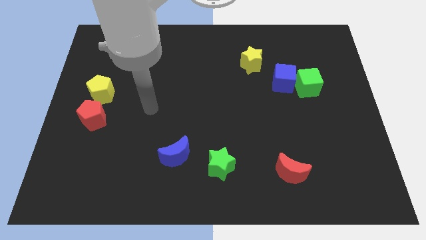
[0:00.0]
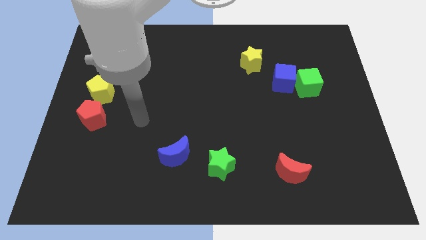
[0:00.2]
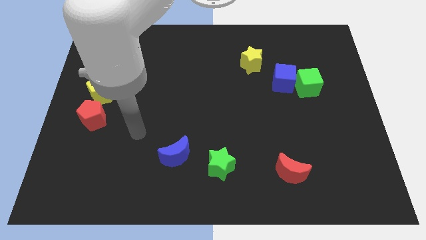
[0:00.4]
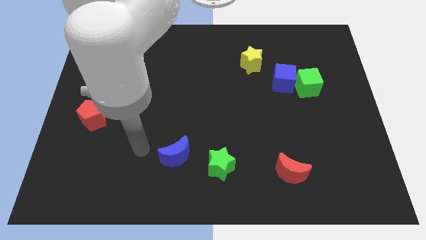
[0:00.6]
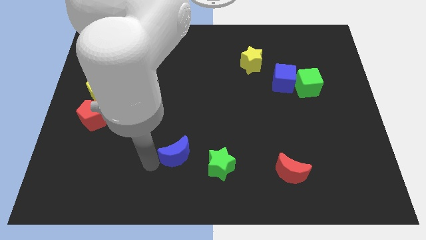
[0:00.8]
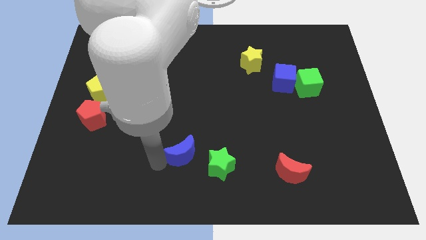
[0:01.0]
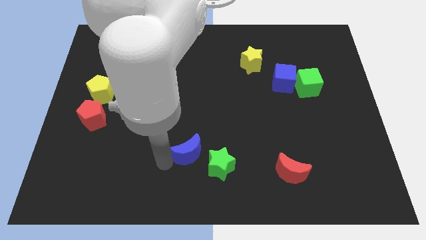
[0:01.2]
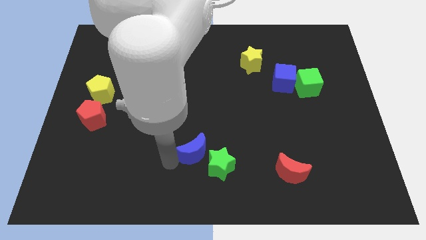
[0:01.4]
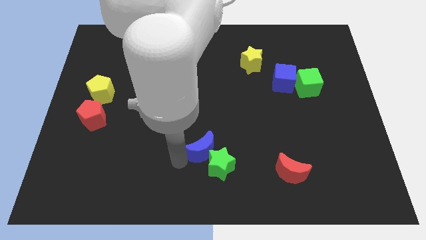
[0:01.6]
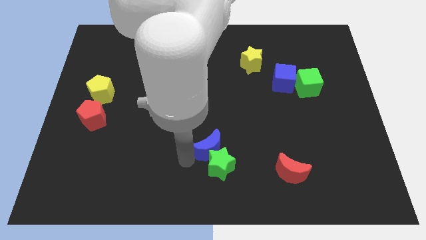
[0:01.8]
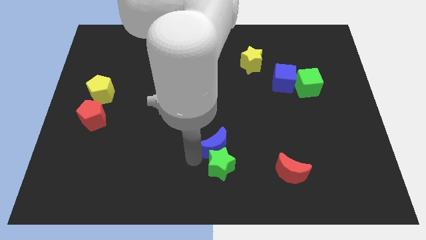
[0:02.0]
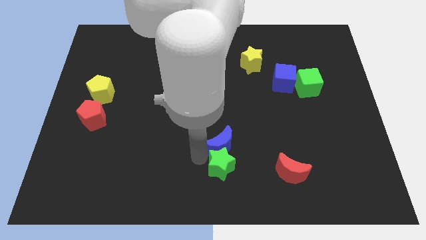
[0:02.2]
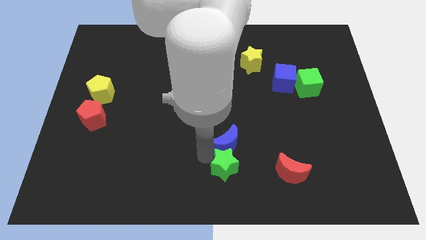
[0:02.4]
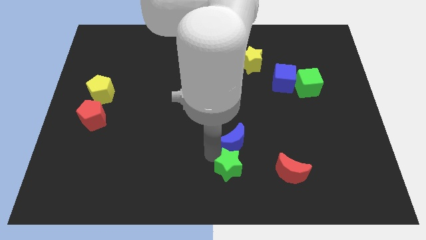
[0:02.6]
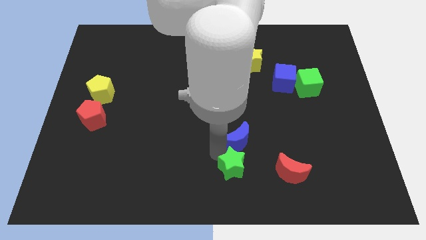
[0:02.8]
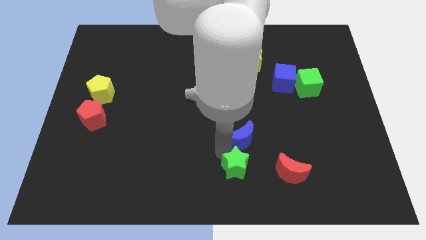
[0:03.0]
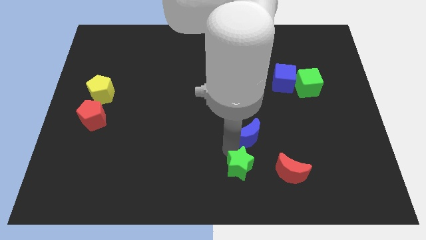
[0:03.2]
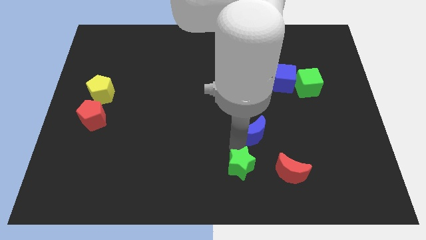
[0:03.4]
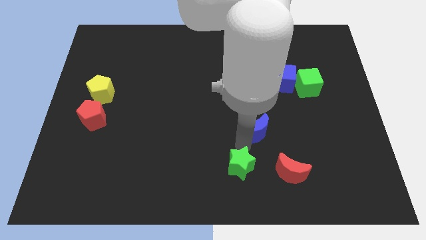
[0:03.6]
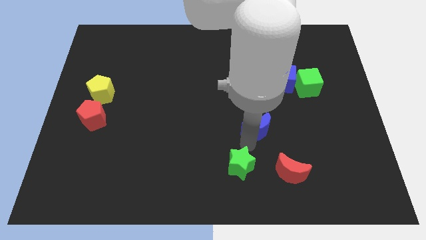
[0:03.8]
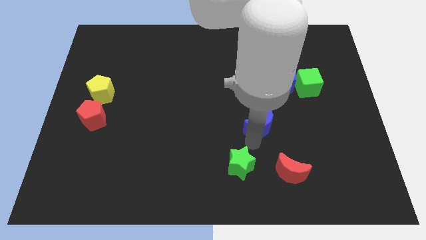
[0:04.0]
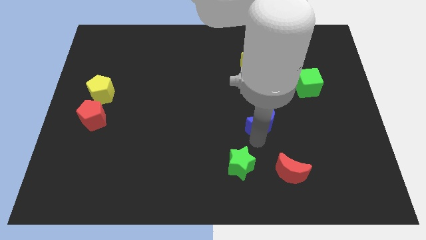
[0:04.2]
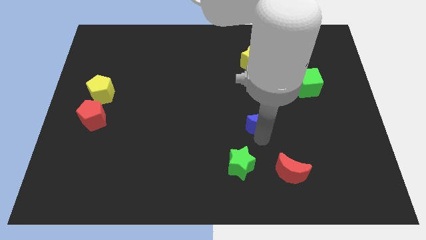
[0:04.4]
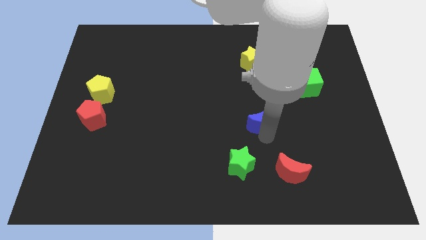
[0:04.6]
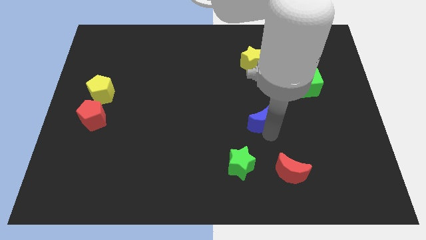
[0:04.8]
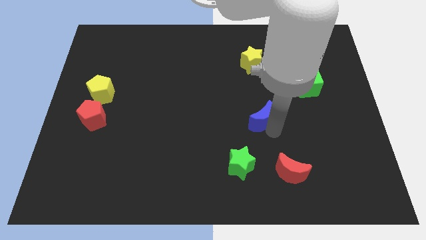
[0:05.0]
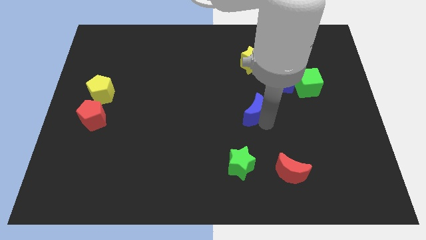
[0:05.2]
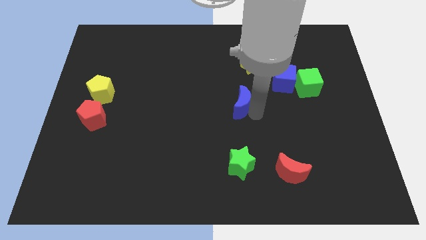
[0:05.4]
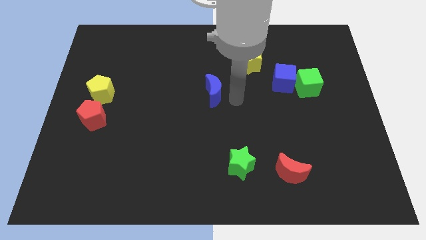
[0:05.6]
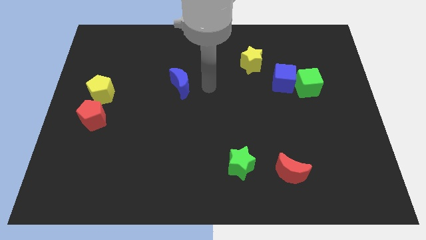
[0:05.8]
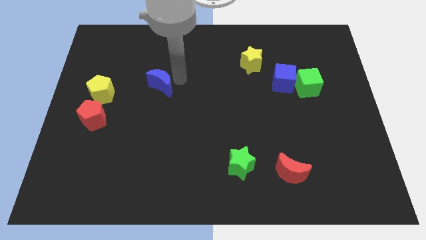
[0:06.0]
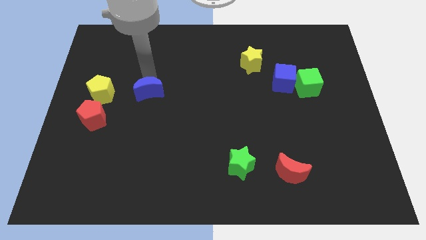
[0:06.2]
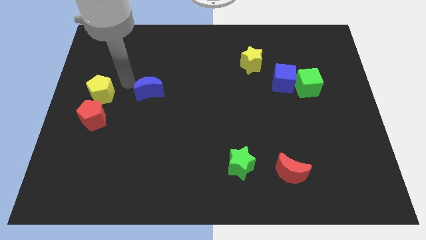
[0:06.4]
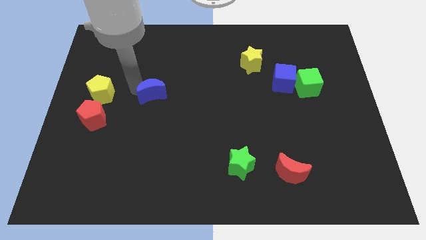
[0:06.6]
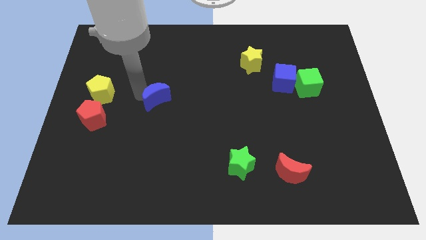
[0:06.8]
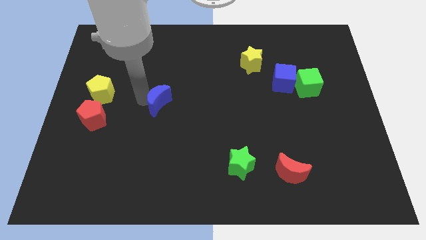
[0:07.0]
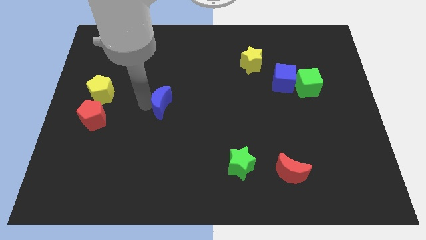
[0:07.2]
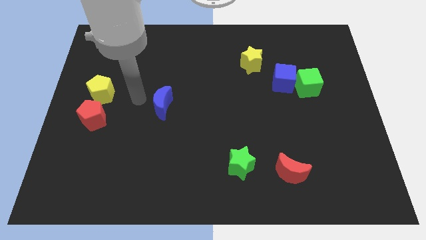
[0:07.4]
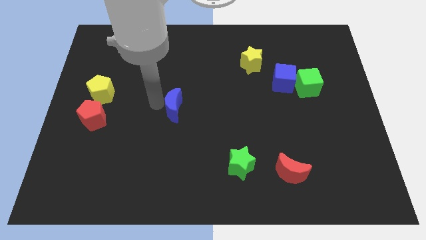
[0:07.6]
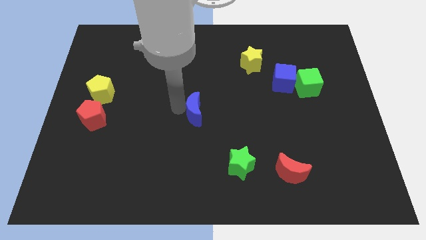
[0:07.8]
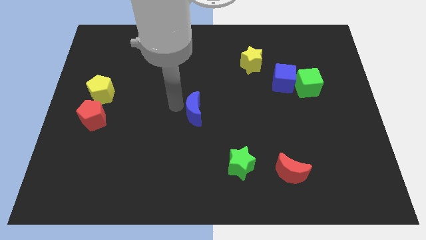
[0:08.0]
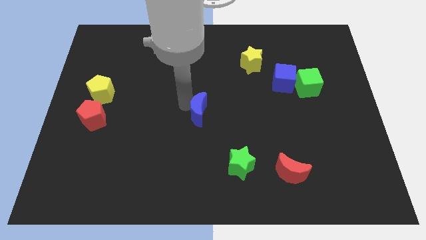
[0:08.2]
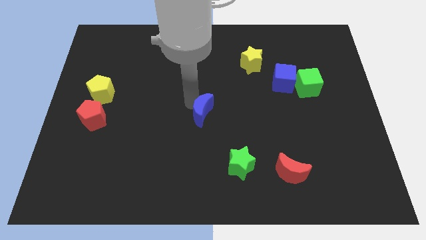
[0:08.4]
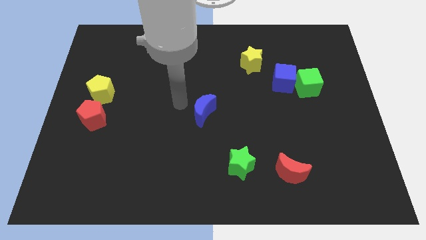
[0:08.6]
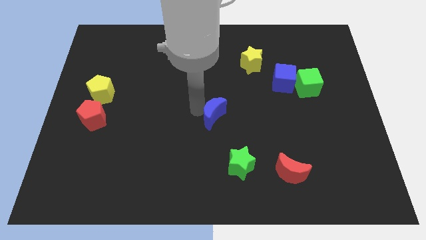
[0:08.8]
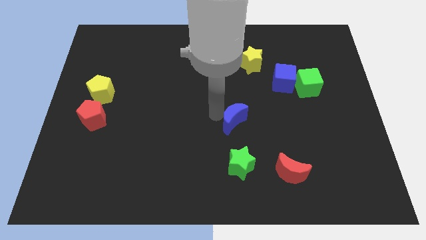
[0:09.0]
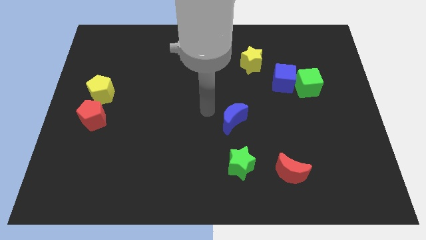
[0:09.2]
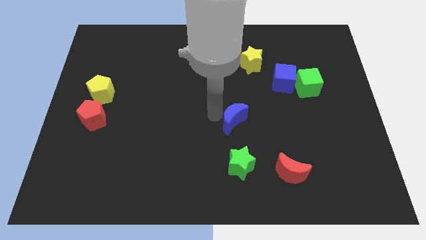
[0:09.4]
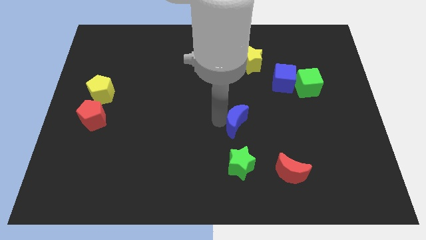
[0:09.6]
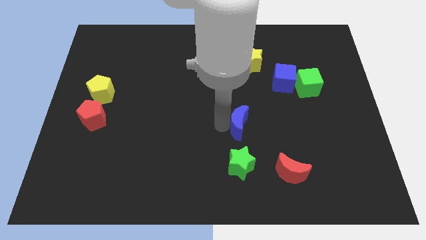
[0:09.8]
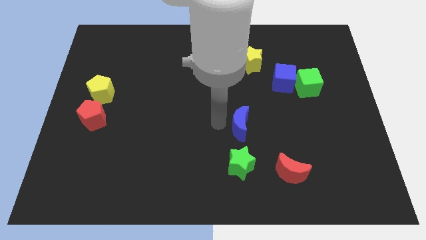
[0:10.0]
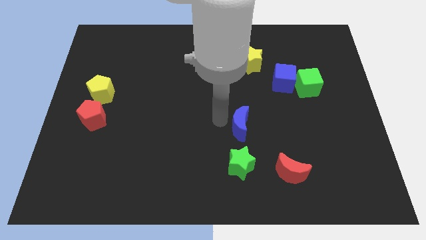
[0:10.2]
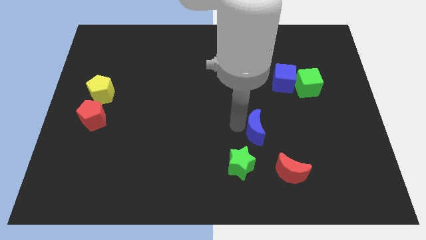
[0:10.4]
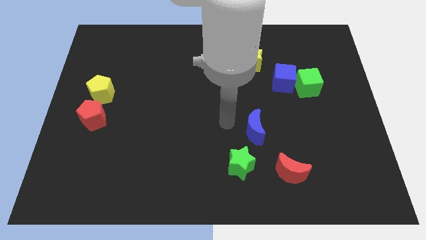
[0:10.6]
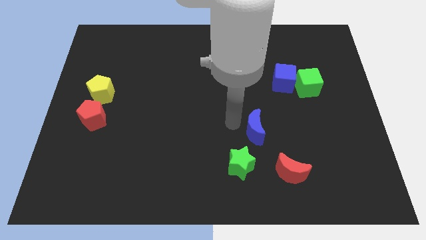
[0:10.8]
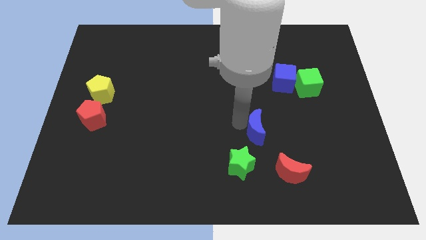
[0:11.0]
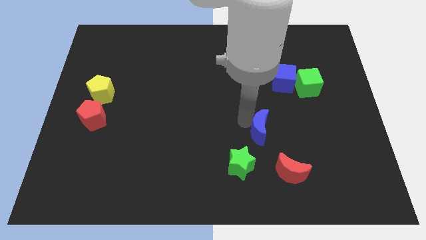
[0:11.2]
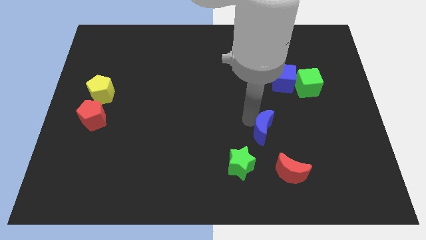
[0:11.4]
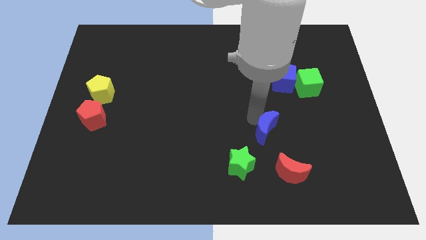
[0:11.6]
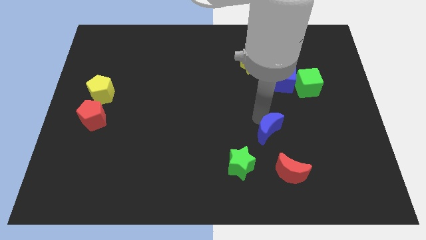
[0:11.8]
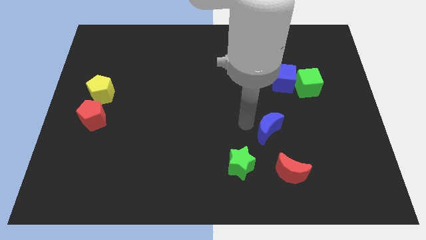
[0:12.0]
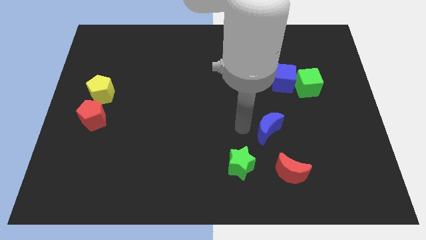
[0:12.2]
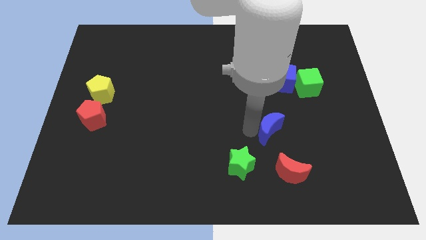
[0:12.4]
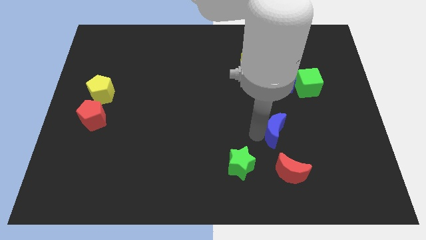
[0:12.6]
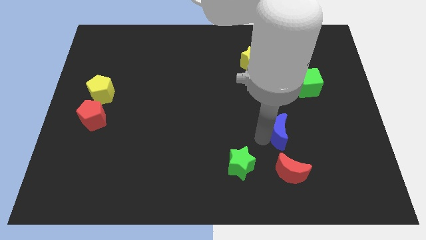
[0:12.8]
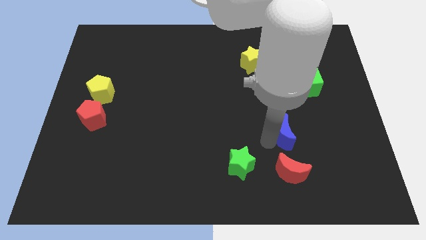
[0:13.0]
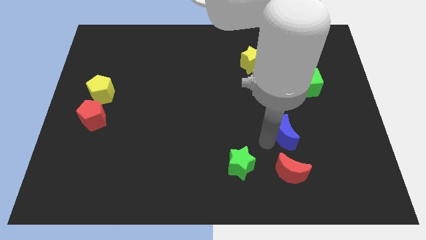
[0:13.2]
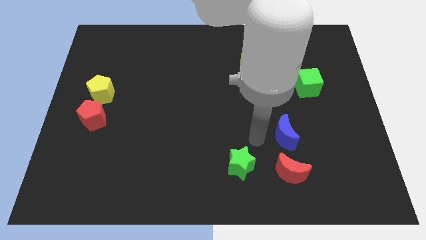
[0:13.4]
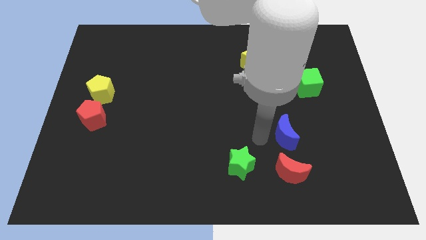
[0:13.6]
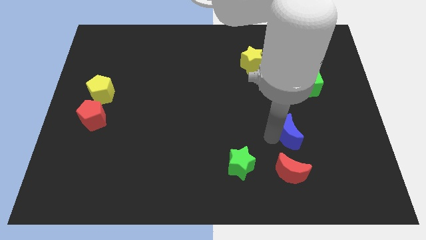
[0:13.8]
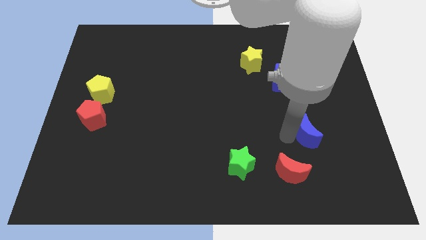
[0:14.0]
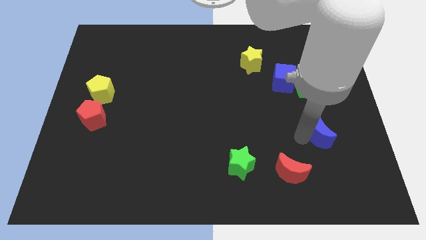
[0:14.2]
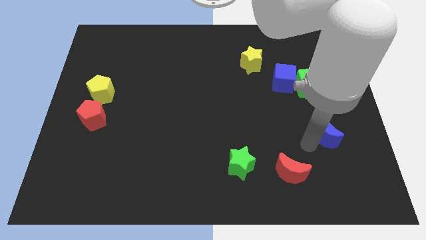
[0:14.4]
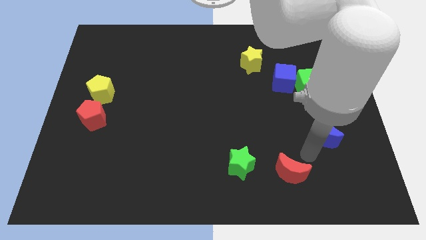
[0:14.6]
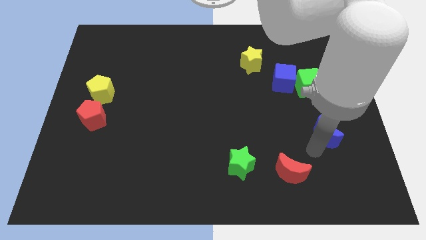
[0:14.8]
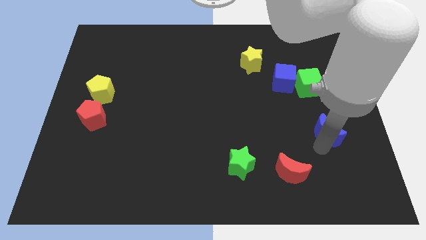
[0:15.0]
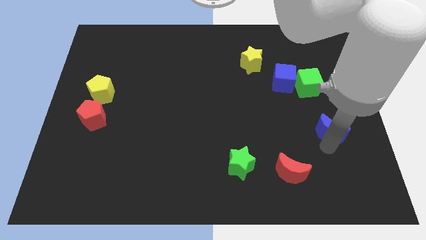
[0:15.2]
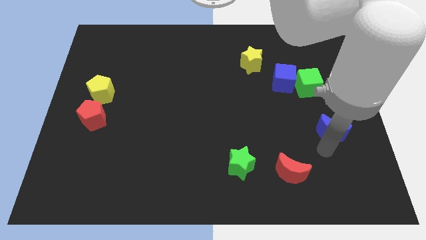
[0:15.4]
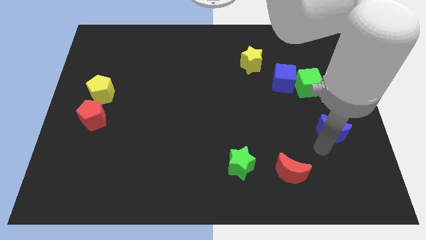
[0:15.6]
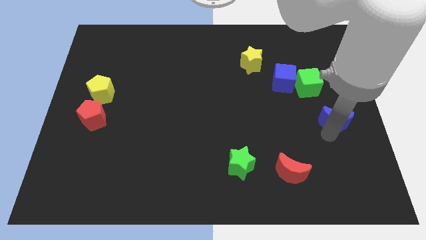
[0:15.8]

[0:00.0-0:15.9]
push the blue moon to the right side of the board
